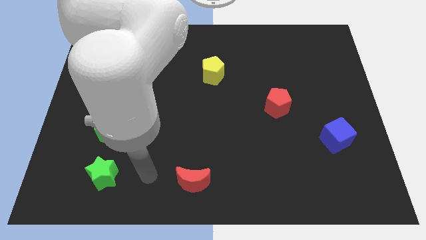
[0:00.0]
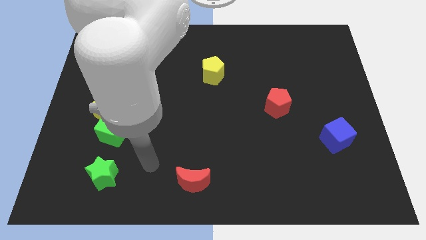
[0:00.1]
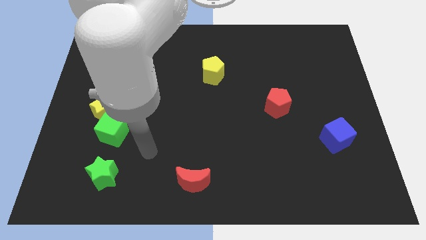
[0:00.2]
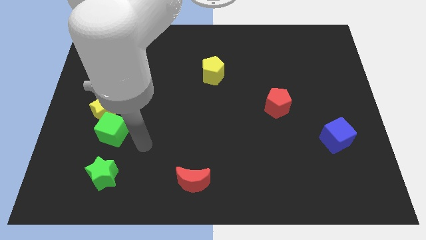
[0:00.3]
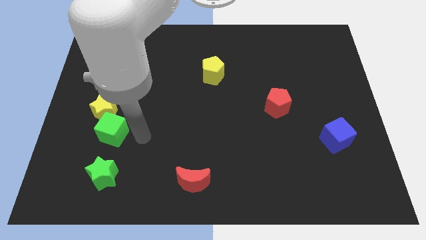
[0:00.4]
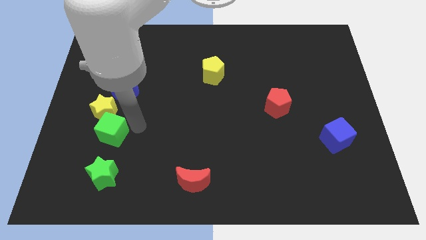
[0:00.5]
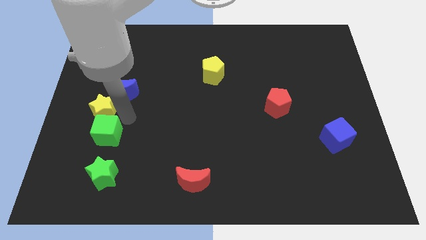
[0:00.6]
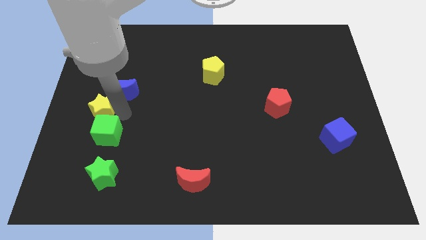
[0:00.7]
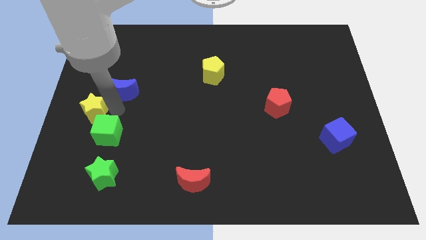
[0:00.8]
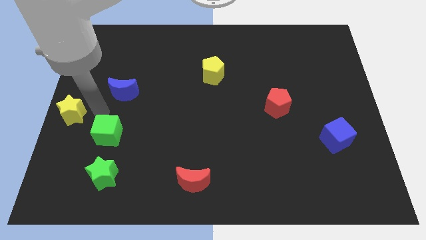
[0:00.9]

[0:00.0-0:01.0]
move the green cube away from the yellow star

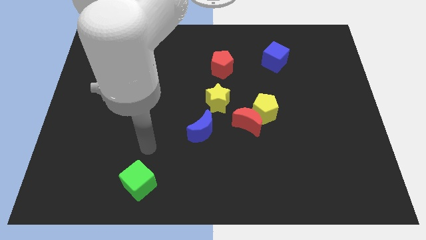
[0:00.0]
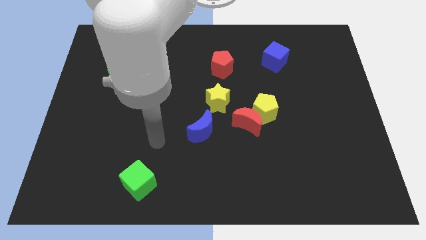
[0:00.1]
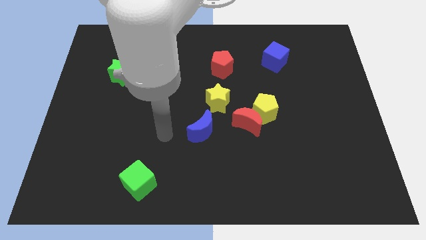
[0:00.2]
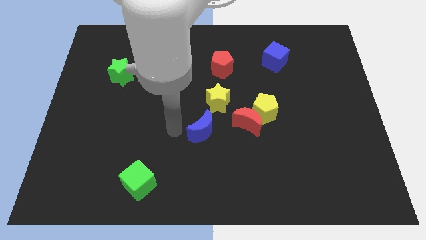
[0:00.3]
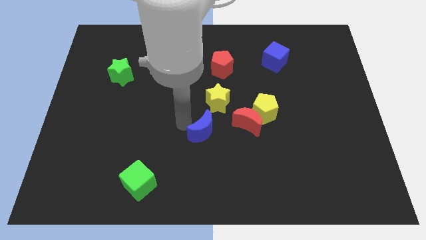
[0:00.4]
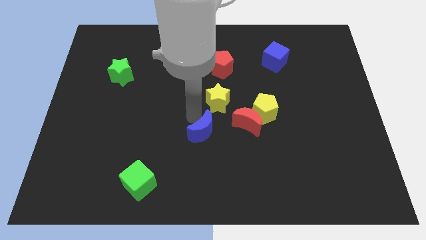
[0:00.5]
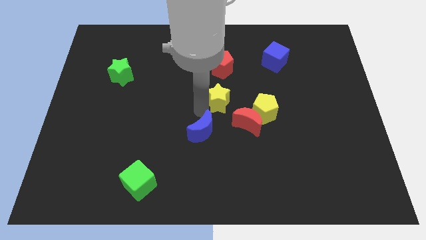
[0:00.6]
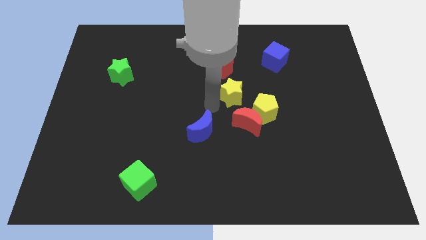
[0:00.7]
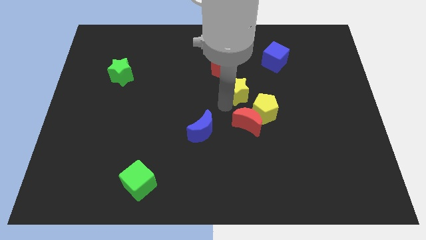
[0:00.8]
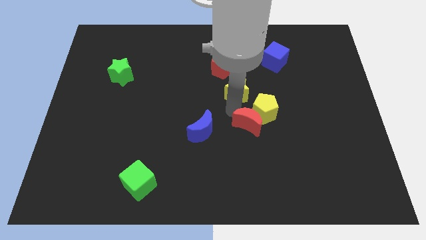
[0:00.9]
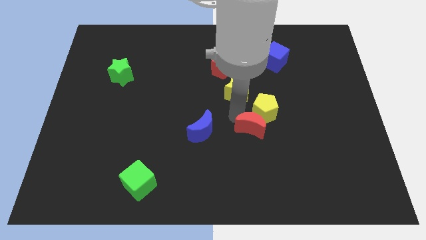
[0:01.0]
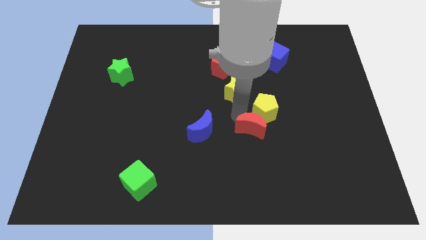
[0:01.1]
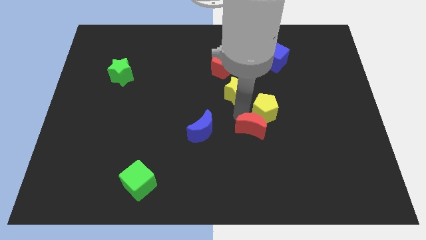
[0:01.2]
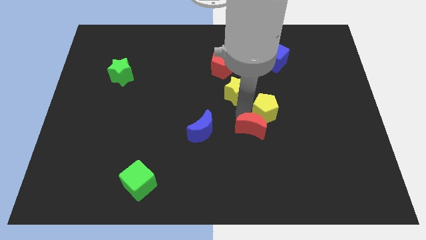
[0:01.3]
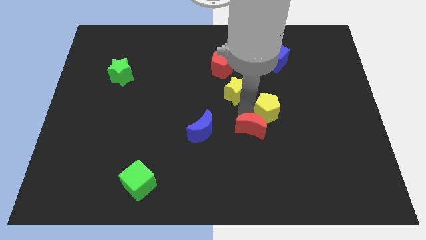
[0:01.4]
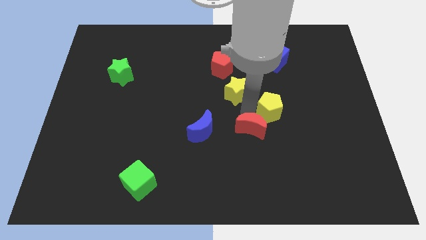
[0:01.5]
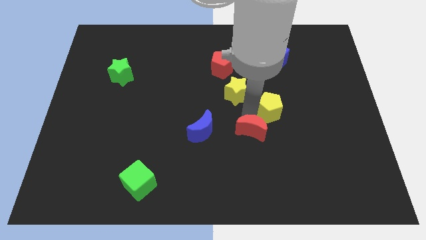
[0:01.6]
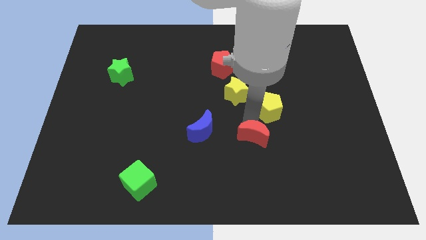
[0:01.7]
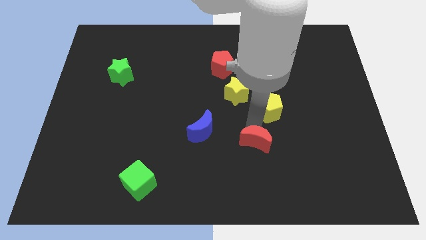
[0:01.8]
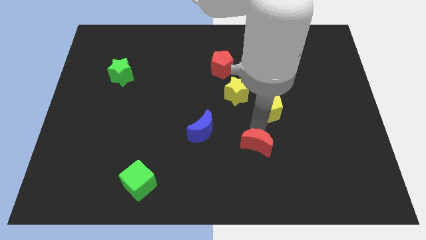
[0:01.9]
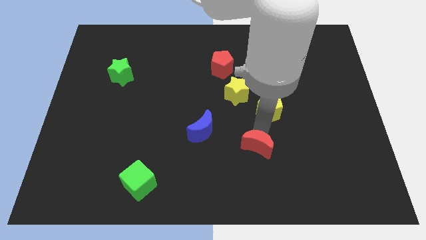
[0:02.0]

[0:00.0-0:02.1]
pull the yellow pentagon apart from the red moon

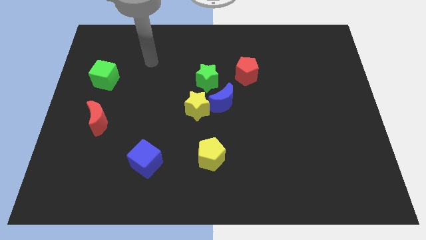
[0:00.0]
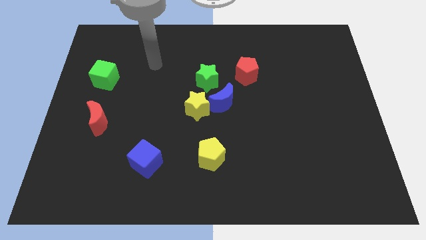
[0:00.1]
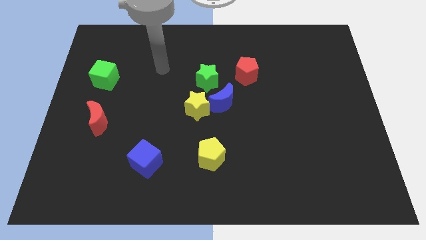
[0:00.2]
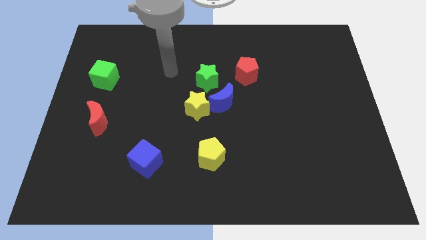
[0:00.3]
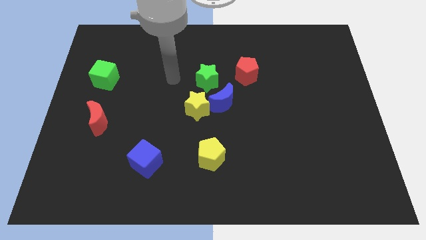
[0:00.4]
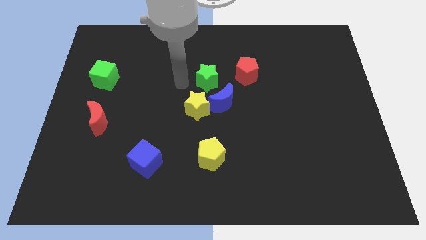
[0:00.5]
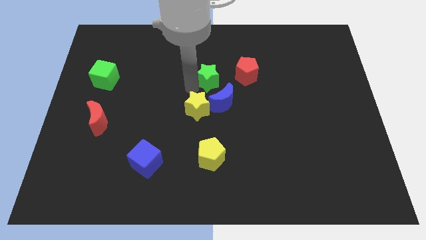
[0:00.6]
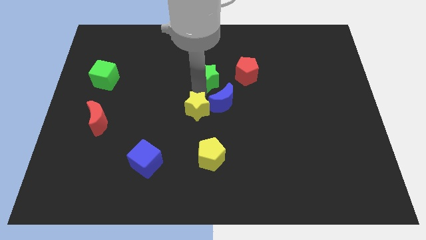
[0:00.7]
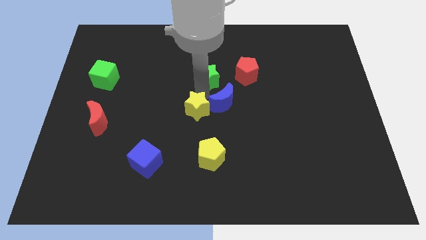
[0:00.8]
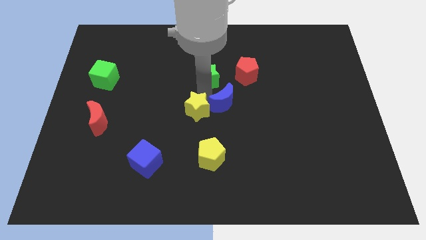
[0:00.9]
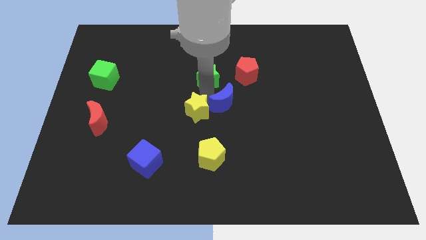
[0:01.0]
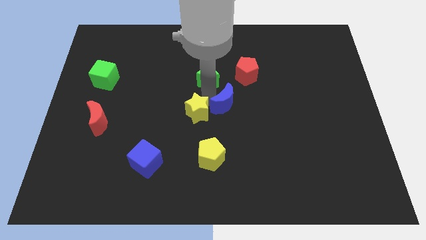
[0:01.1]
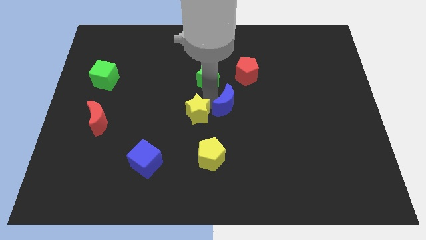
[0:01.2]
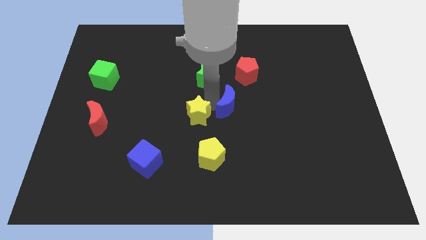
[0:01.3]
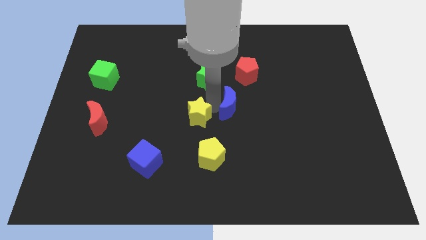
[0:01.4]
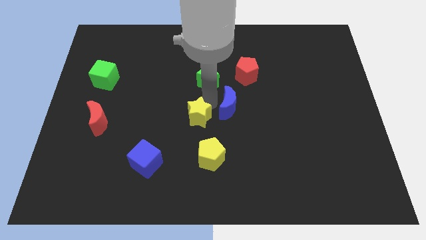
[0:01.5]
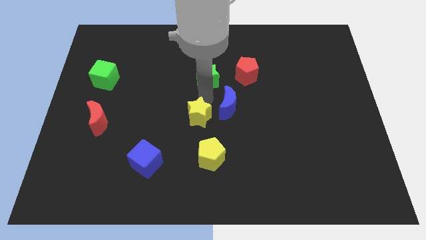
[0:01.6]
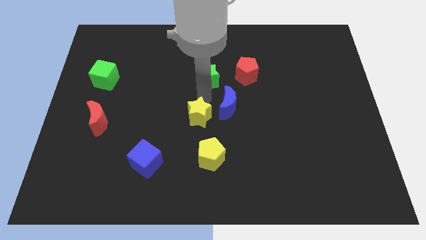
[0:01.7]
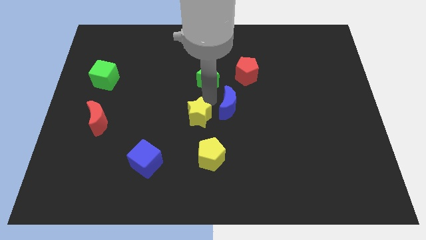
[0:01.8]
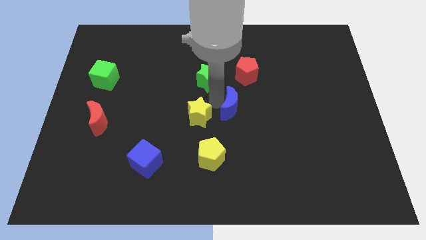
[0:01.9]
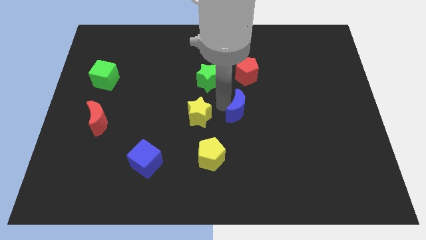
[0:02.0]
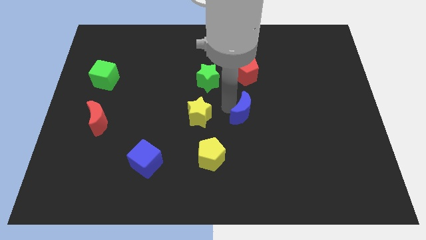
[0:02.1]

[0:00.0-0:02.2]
separate the blue moon from the yellow star and green star

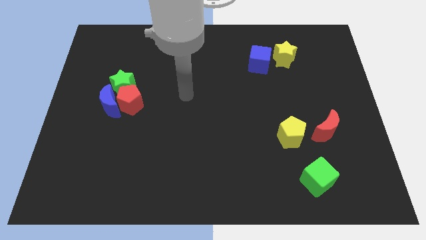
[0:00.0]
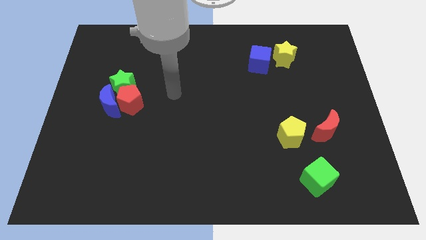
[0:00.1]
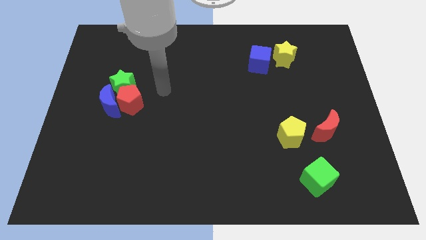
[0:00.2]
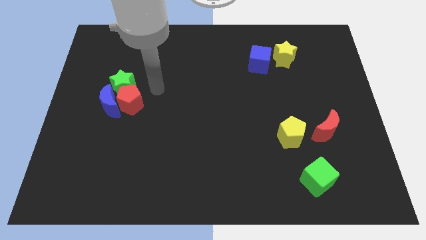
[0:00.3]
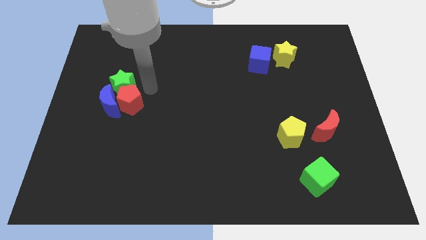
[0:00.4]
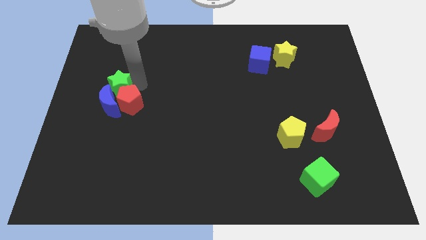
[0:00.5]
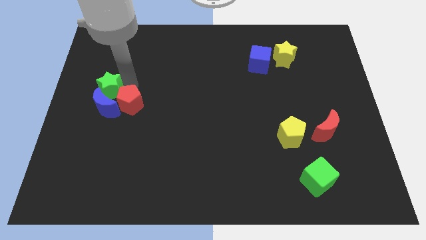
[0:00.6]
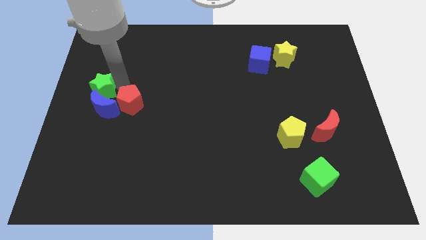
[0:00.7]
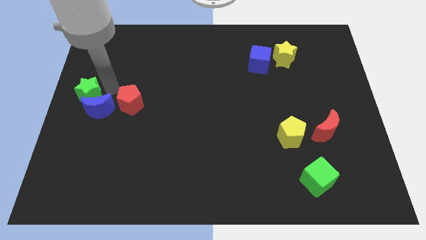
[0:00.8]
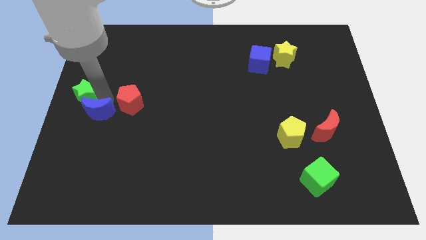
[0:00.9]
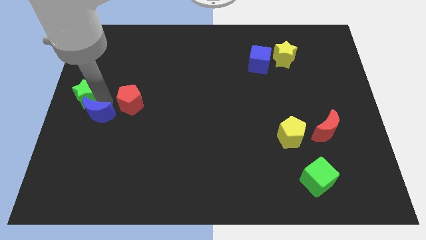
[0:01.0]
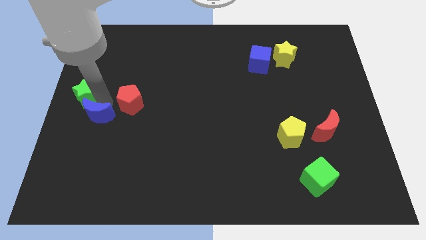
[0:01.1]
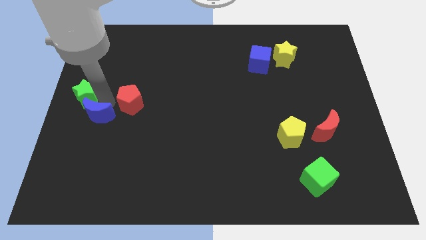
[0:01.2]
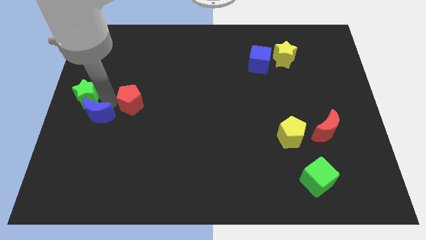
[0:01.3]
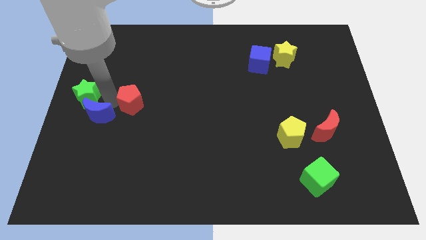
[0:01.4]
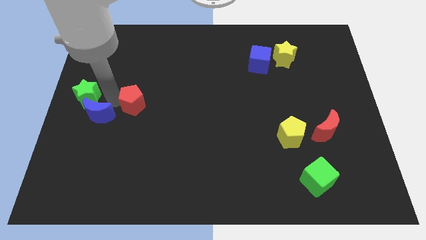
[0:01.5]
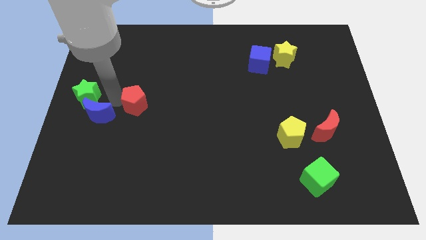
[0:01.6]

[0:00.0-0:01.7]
pull the red pentagon apart from the blue moon and green star

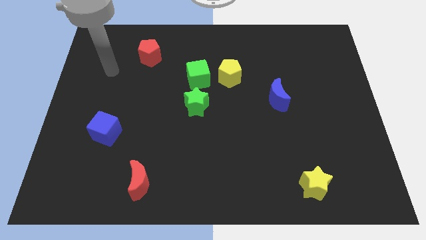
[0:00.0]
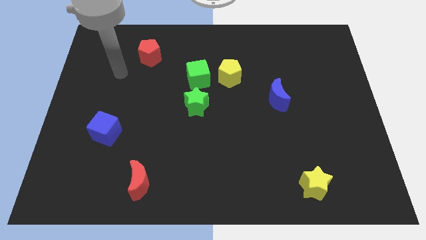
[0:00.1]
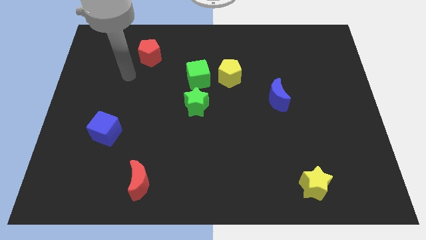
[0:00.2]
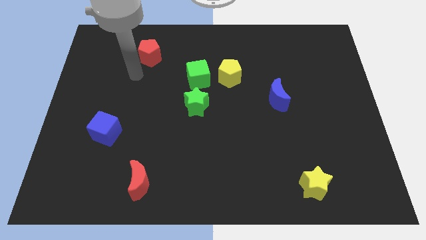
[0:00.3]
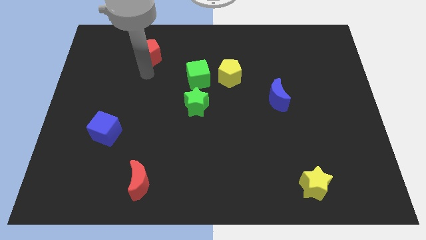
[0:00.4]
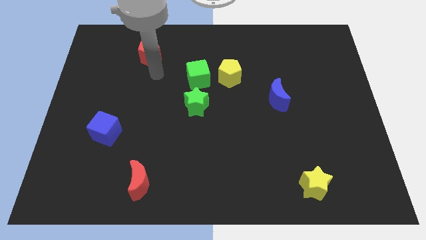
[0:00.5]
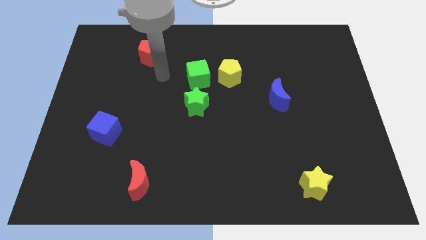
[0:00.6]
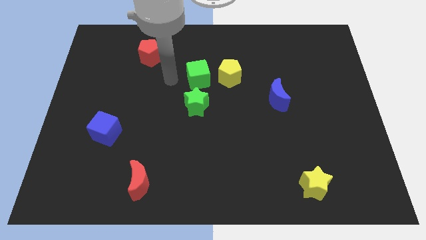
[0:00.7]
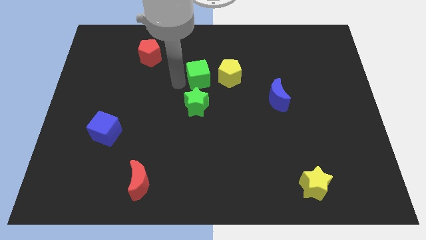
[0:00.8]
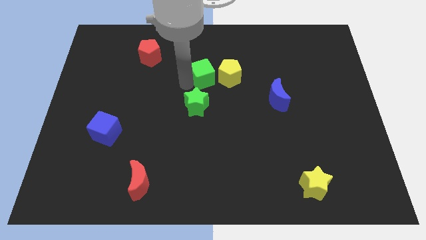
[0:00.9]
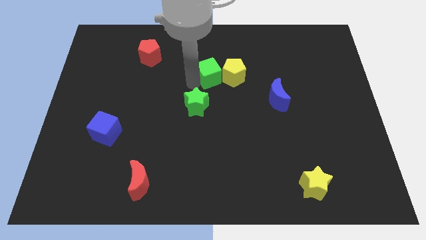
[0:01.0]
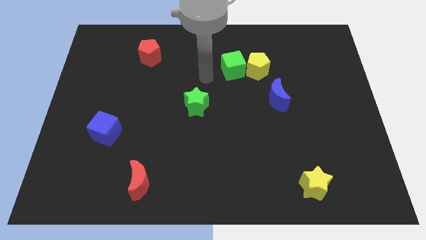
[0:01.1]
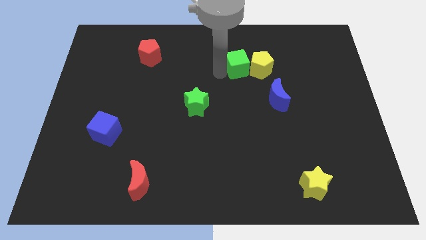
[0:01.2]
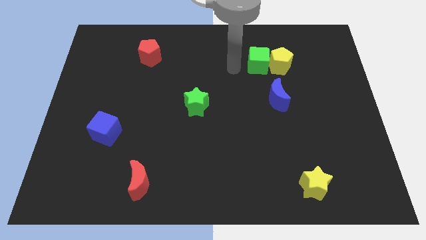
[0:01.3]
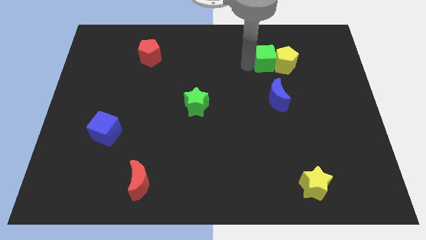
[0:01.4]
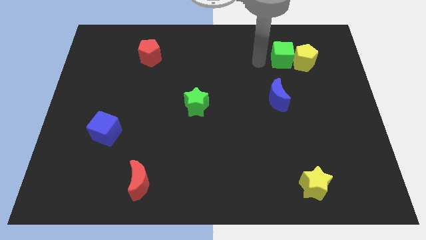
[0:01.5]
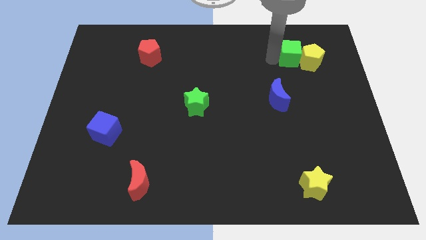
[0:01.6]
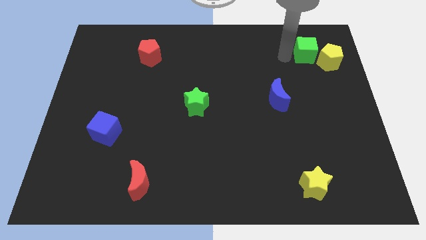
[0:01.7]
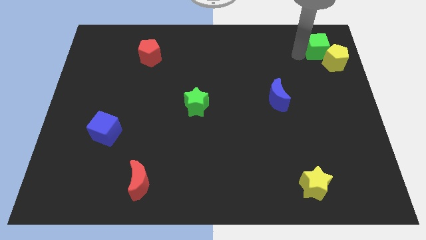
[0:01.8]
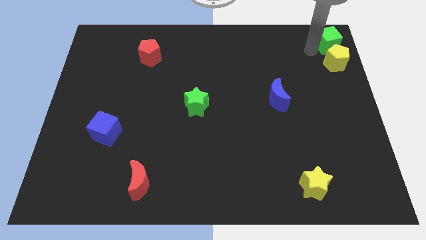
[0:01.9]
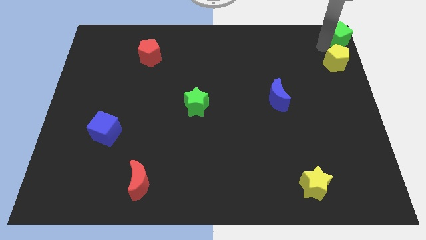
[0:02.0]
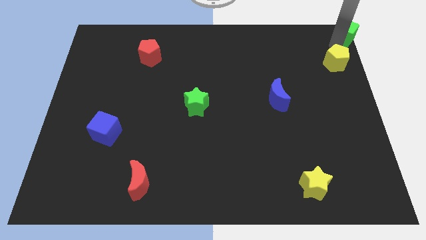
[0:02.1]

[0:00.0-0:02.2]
separate the yellow pentagon from the green cube
